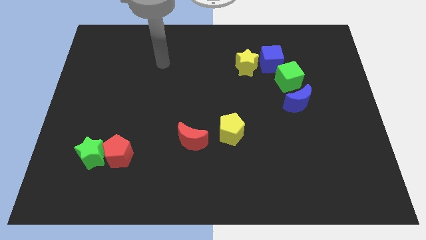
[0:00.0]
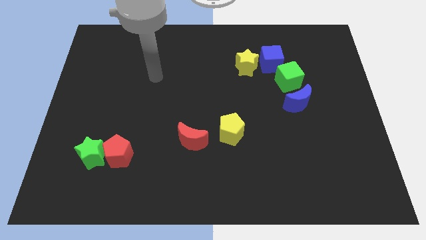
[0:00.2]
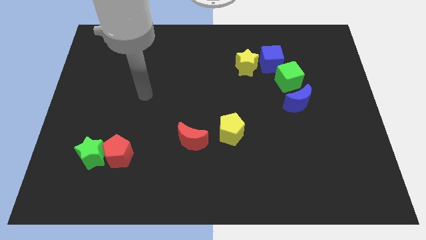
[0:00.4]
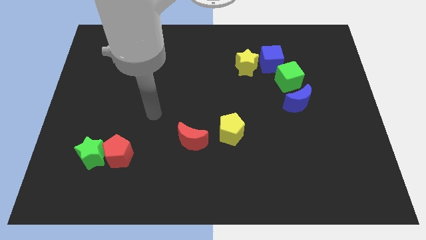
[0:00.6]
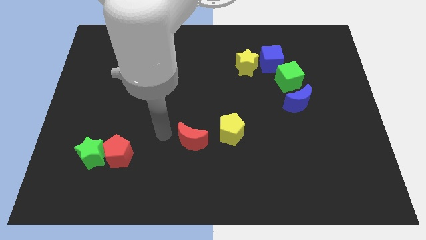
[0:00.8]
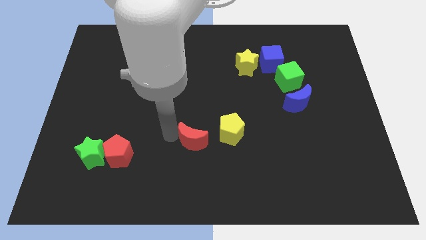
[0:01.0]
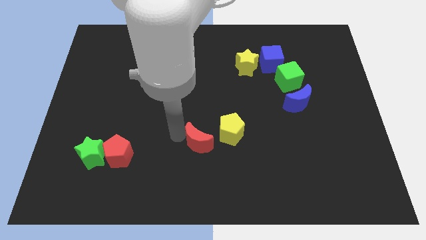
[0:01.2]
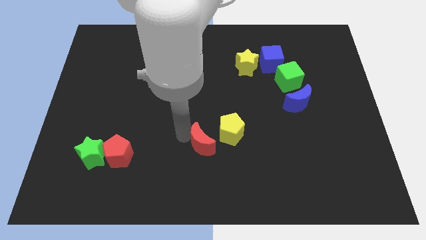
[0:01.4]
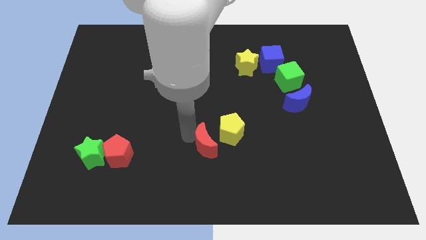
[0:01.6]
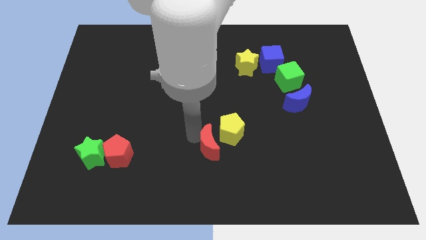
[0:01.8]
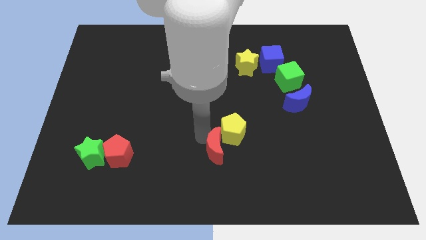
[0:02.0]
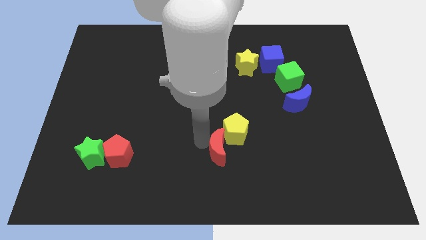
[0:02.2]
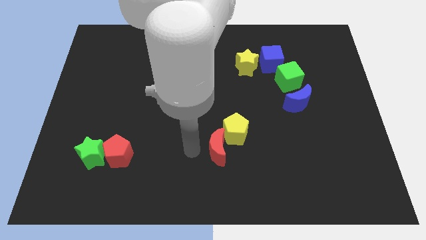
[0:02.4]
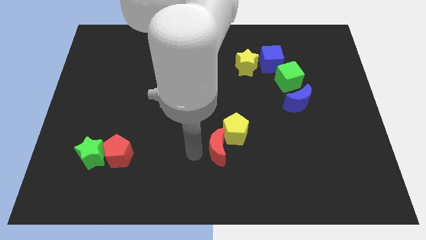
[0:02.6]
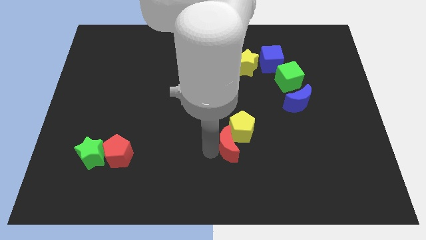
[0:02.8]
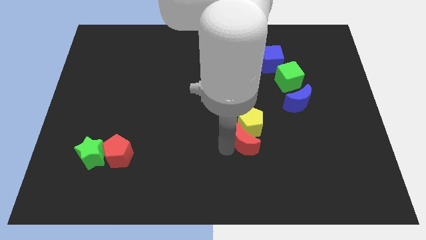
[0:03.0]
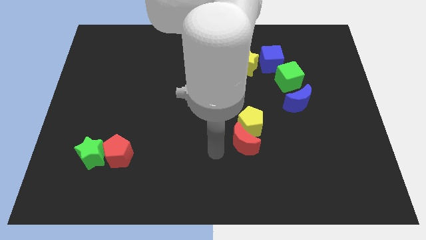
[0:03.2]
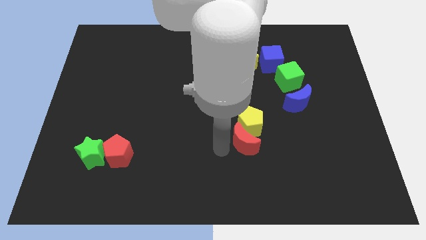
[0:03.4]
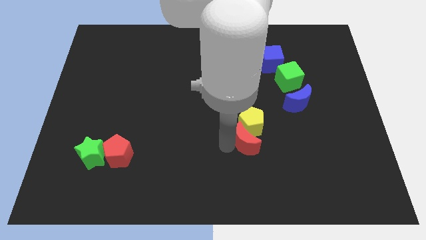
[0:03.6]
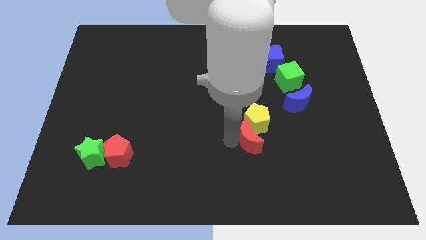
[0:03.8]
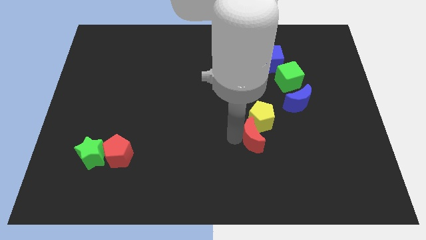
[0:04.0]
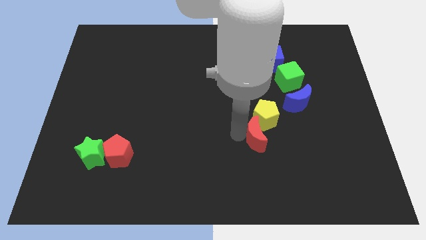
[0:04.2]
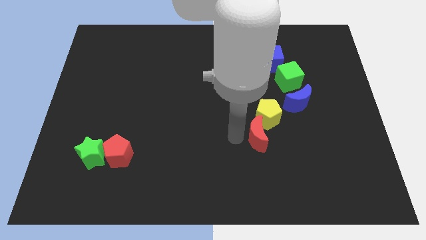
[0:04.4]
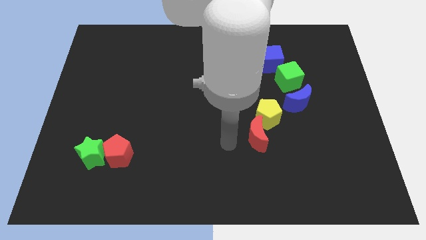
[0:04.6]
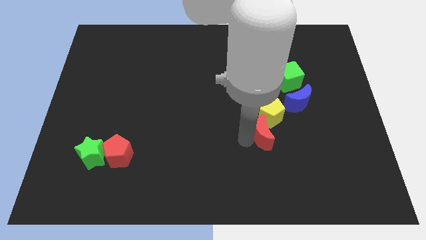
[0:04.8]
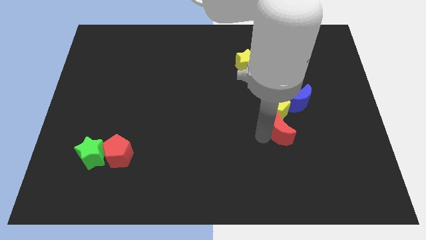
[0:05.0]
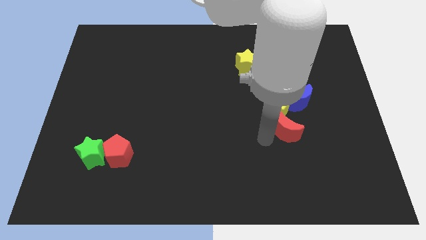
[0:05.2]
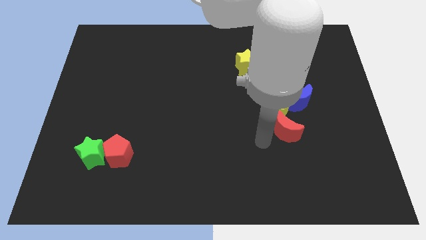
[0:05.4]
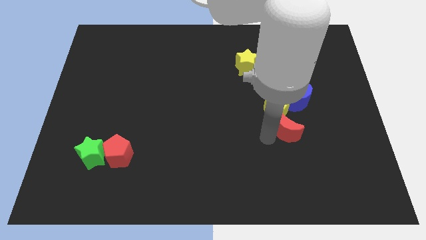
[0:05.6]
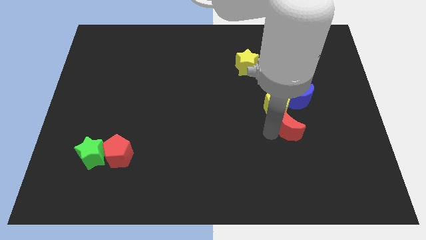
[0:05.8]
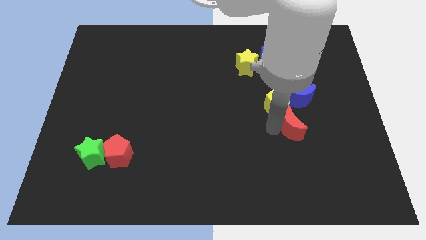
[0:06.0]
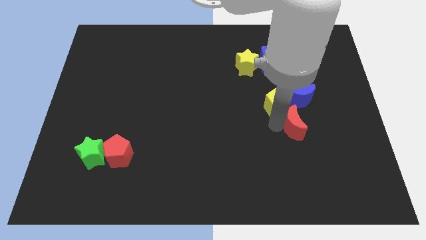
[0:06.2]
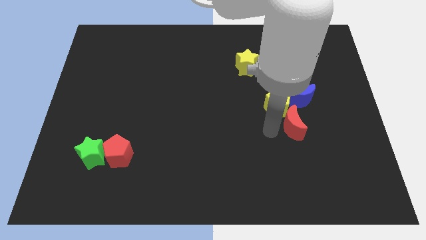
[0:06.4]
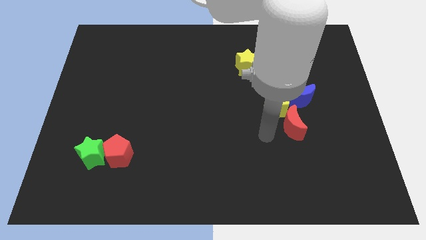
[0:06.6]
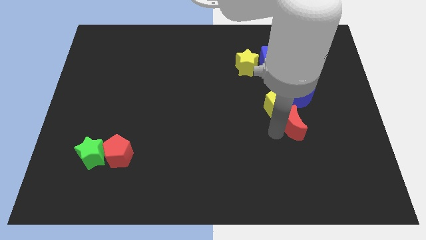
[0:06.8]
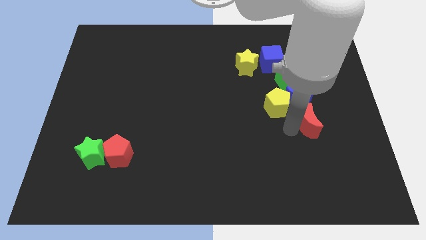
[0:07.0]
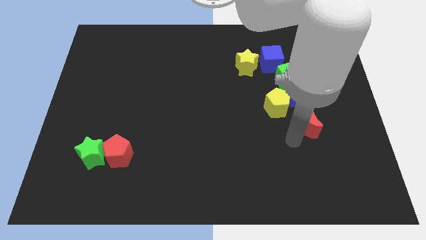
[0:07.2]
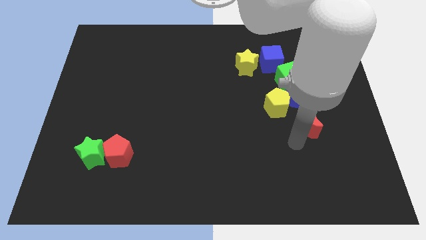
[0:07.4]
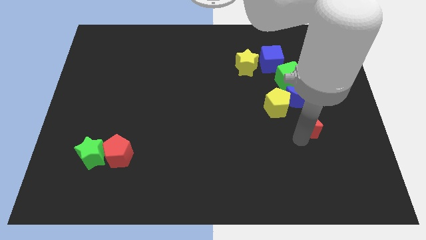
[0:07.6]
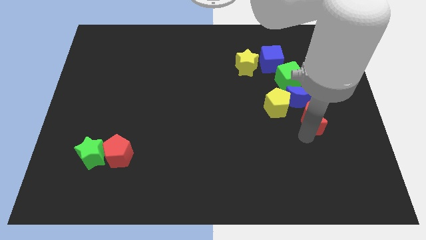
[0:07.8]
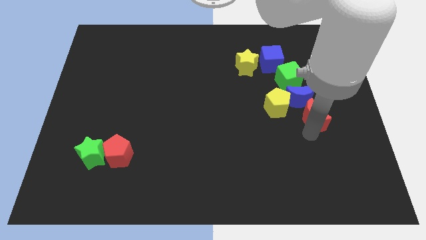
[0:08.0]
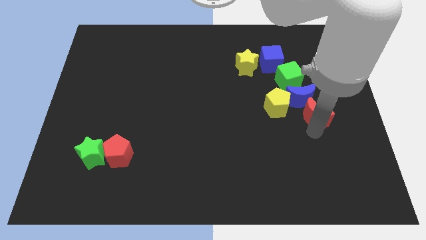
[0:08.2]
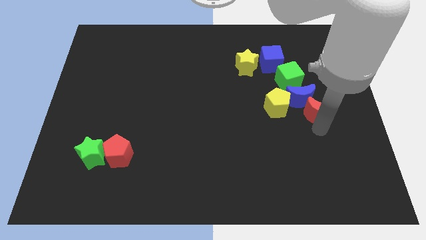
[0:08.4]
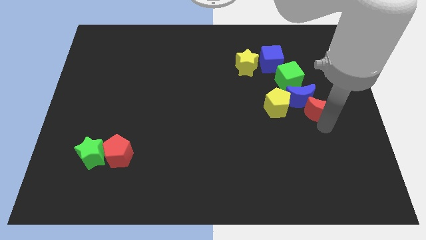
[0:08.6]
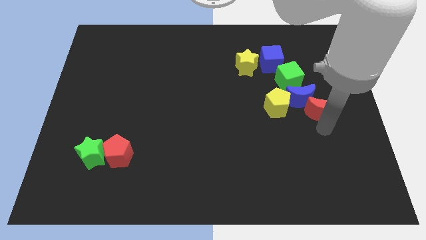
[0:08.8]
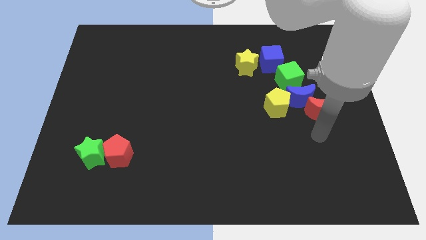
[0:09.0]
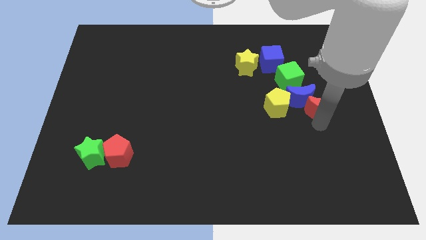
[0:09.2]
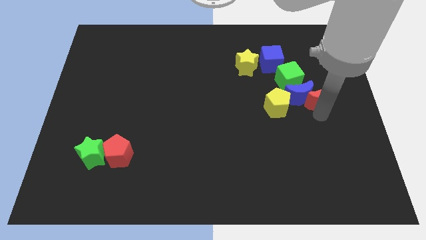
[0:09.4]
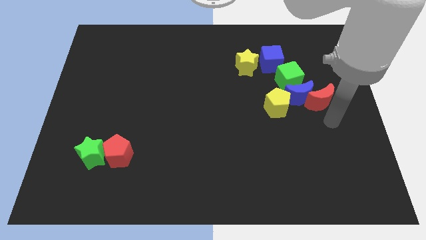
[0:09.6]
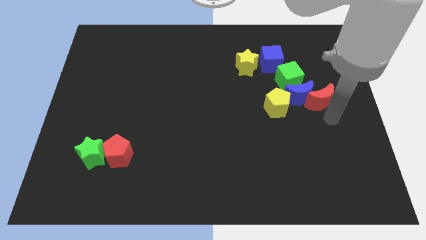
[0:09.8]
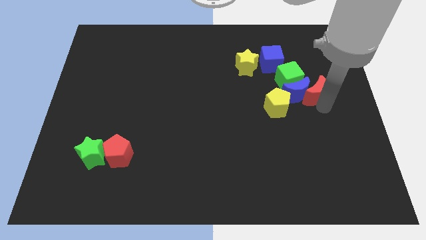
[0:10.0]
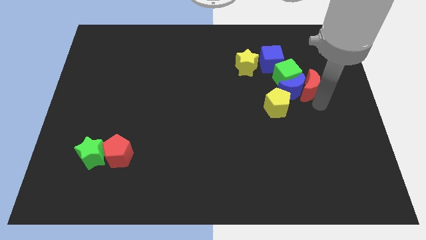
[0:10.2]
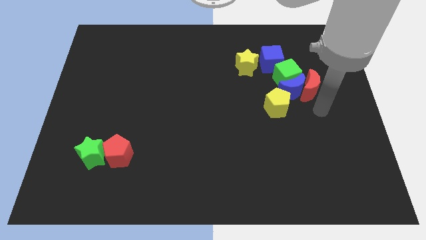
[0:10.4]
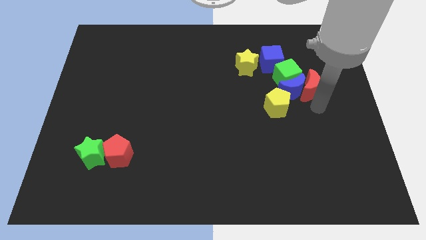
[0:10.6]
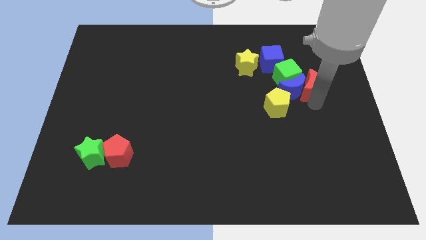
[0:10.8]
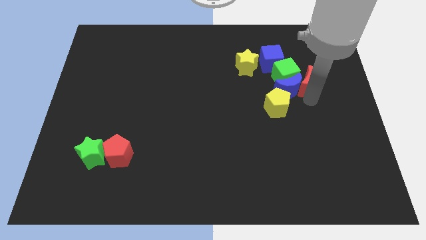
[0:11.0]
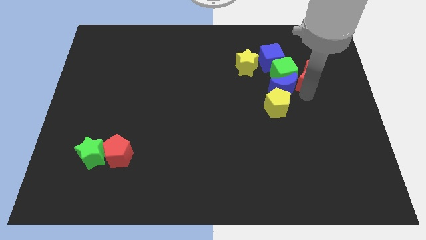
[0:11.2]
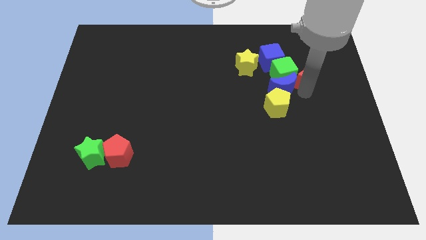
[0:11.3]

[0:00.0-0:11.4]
move the red moon to the top right side of the green cube

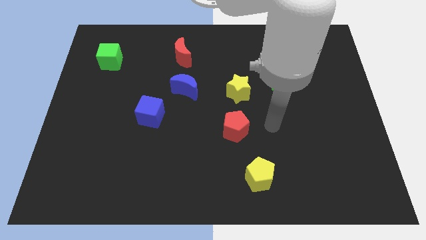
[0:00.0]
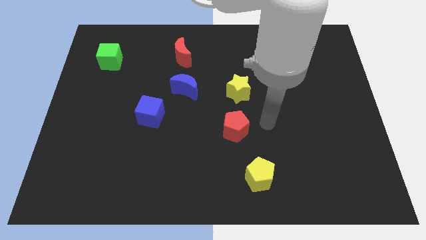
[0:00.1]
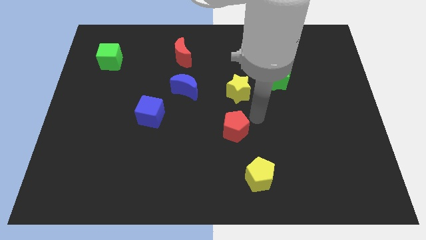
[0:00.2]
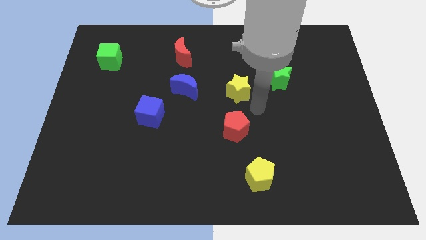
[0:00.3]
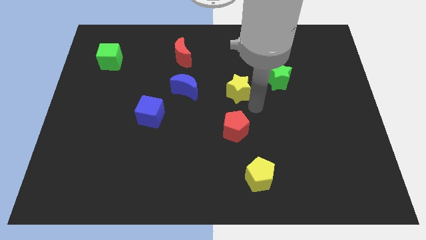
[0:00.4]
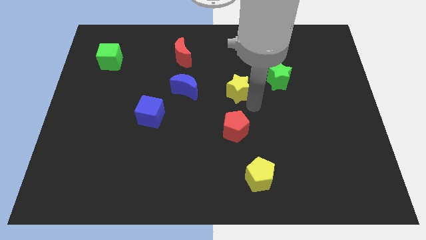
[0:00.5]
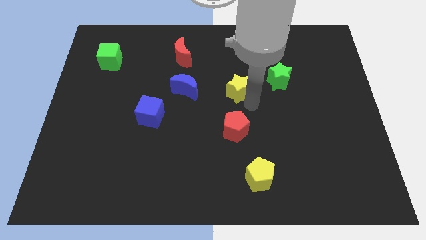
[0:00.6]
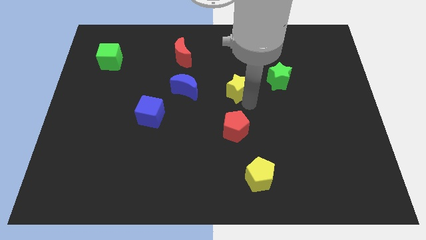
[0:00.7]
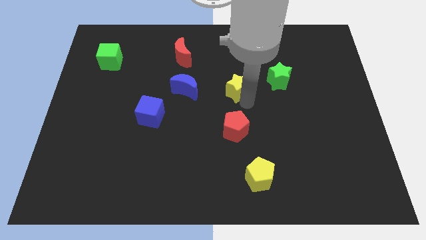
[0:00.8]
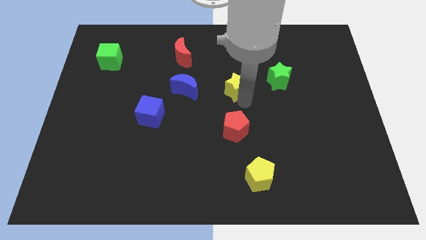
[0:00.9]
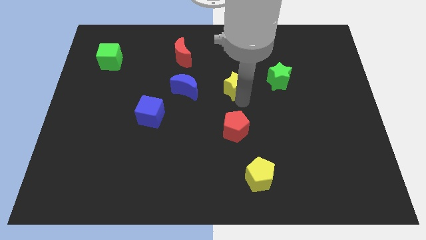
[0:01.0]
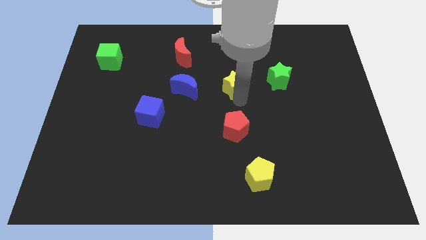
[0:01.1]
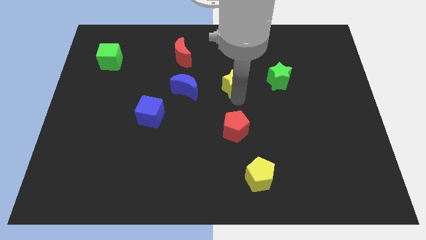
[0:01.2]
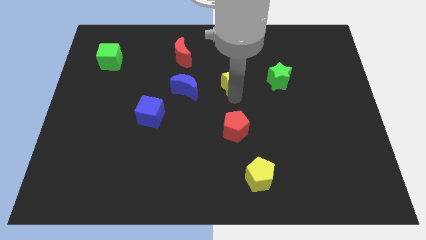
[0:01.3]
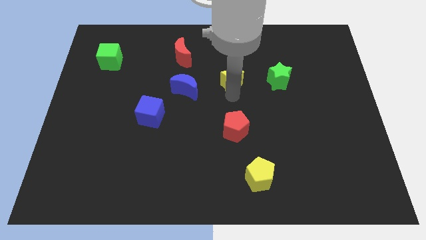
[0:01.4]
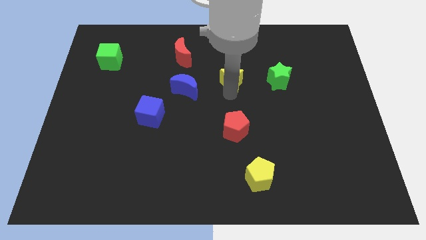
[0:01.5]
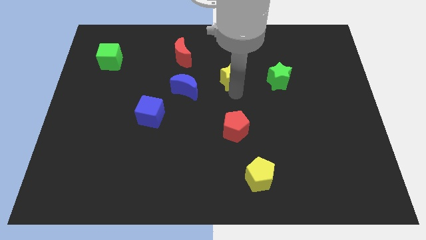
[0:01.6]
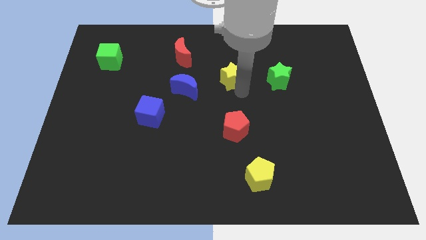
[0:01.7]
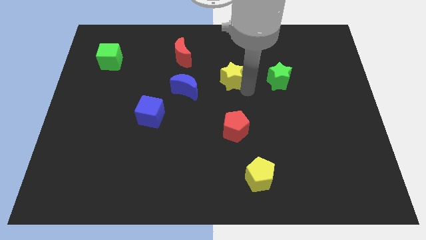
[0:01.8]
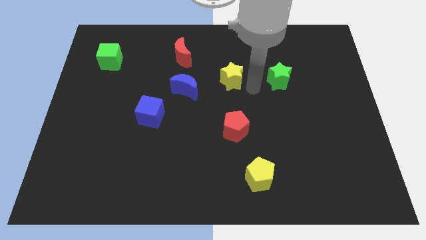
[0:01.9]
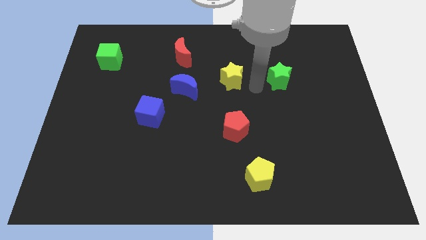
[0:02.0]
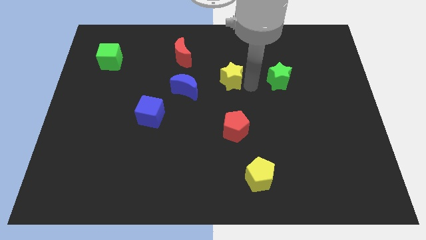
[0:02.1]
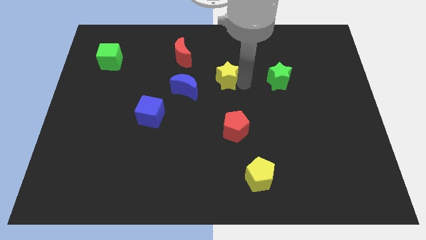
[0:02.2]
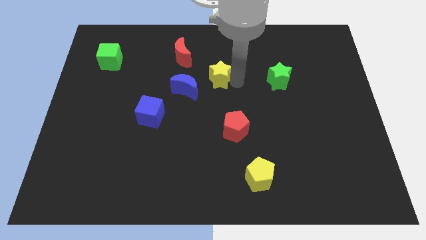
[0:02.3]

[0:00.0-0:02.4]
push the yellow star to the top right side of the blue moon
